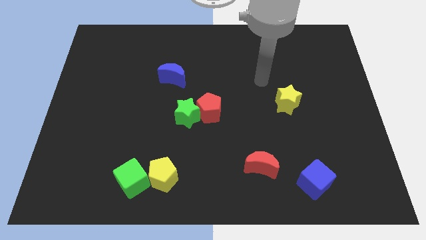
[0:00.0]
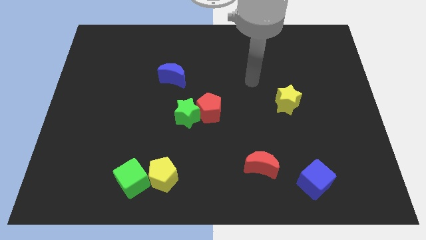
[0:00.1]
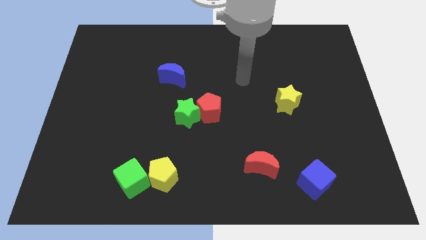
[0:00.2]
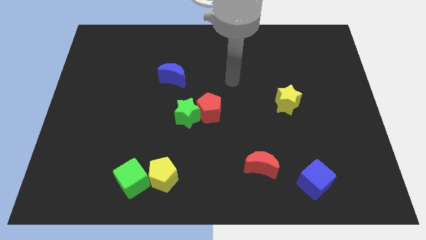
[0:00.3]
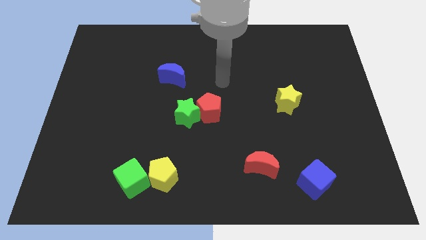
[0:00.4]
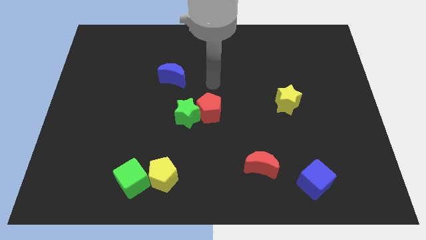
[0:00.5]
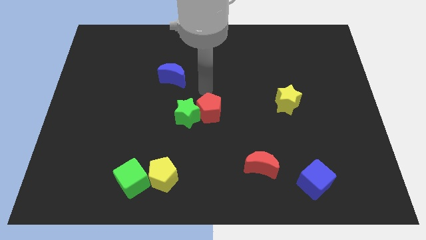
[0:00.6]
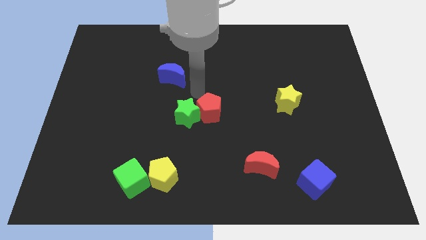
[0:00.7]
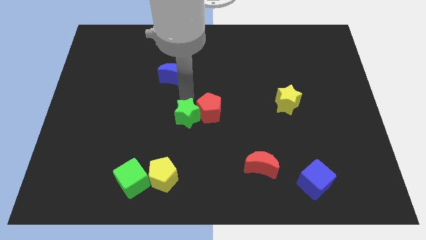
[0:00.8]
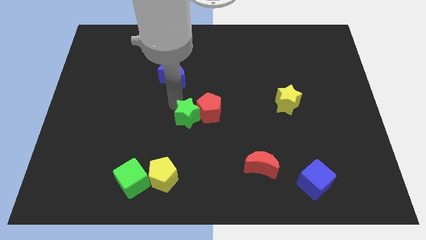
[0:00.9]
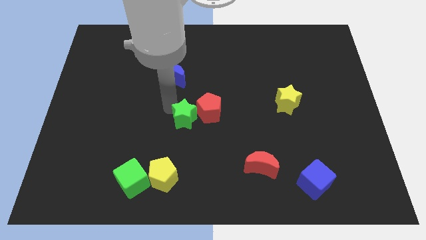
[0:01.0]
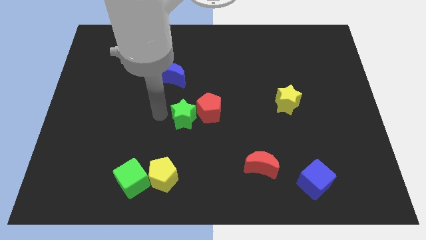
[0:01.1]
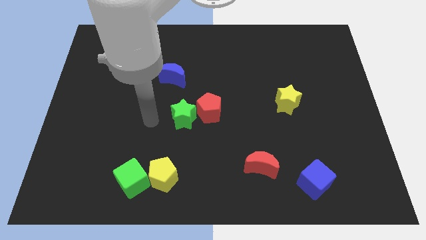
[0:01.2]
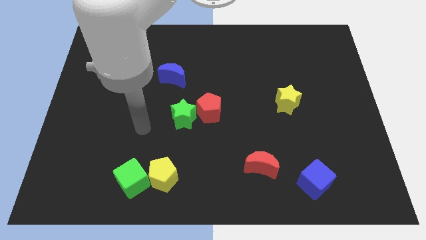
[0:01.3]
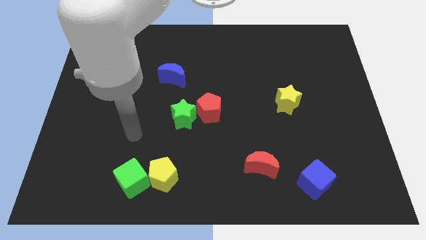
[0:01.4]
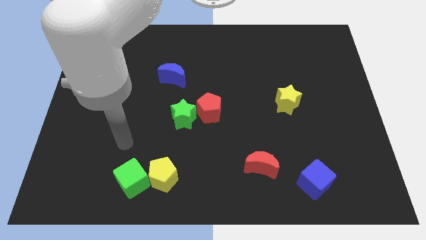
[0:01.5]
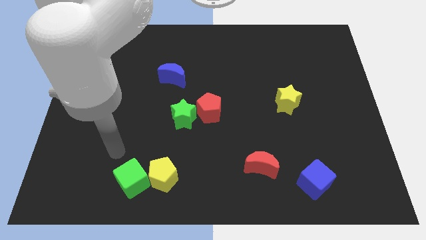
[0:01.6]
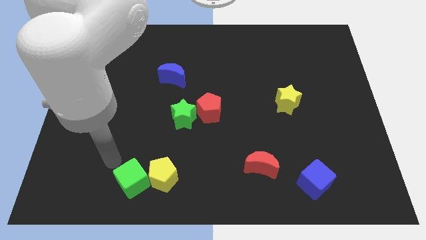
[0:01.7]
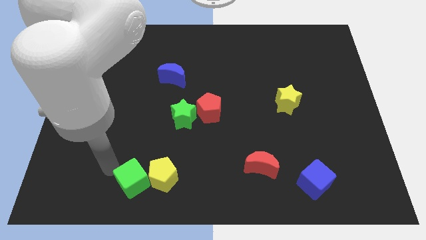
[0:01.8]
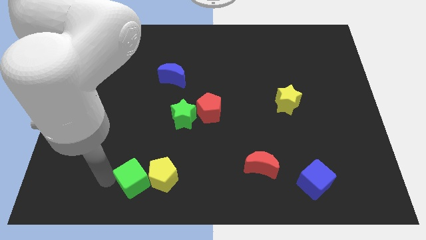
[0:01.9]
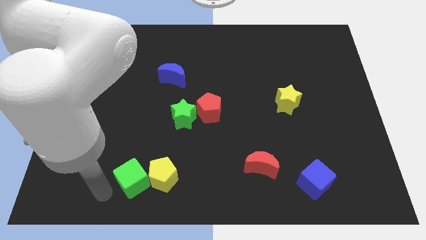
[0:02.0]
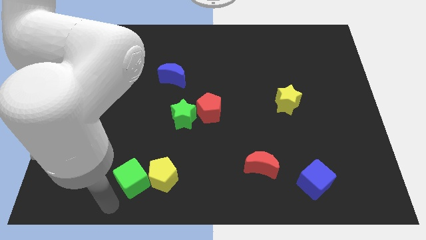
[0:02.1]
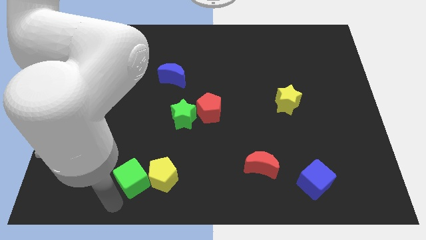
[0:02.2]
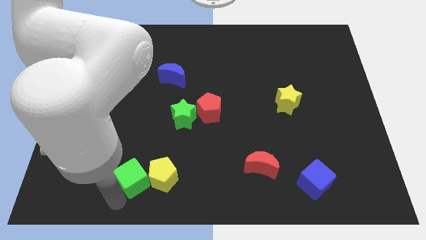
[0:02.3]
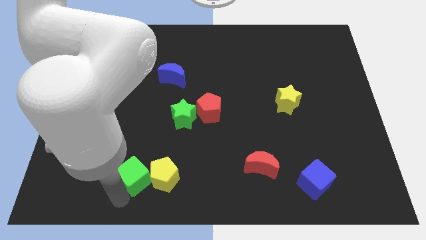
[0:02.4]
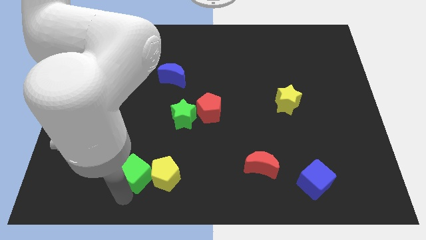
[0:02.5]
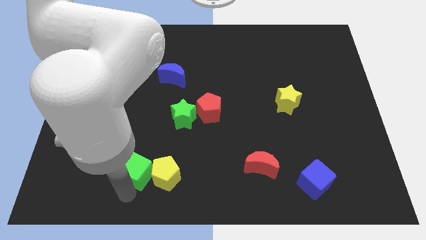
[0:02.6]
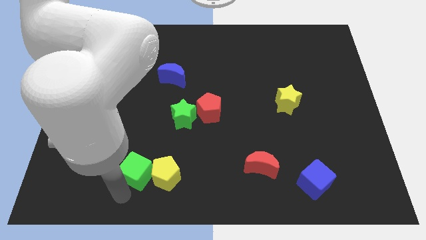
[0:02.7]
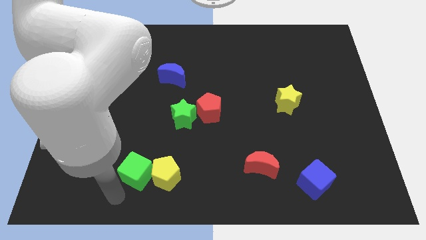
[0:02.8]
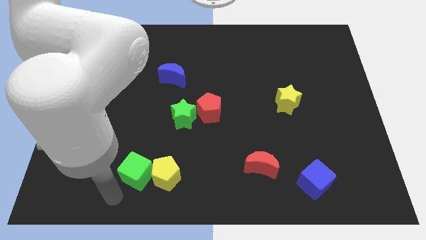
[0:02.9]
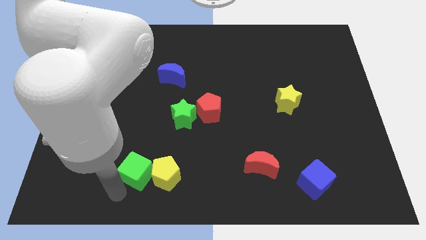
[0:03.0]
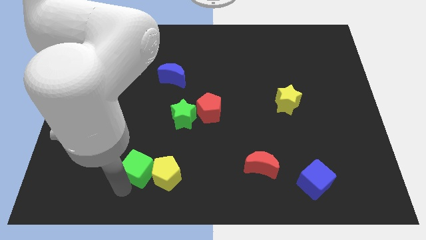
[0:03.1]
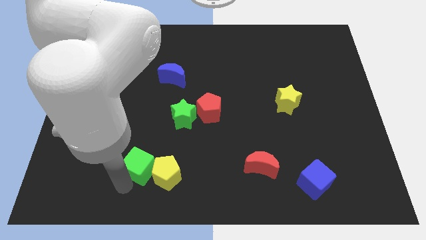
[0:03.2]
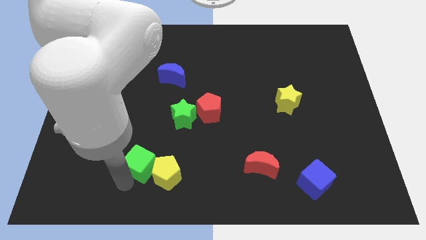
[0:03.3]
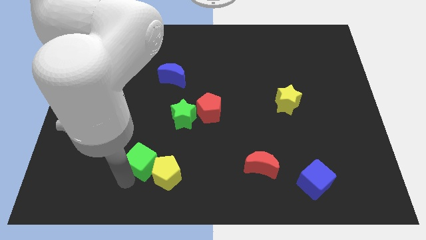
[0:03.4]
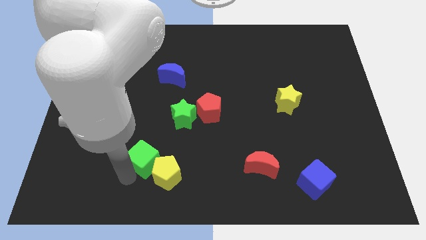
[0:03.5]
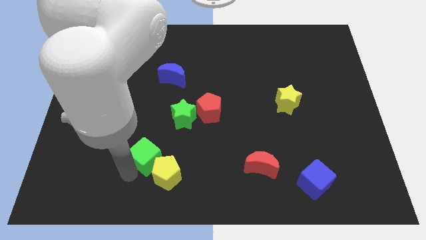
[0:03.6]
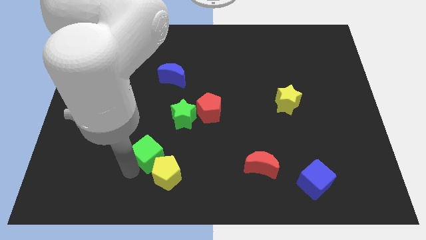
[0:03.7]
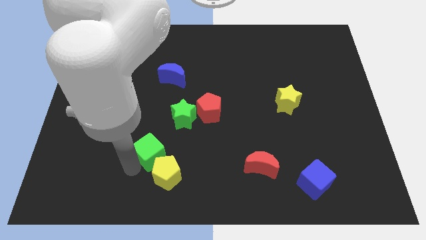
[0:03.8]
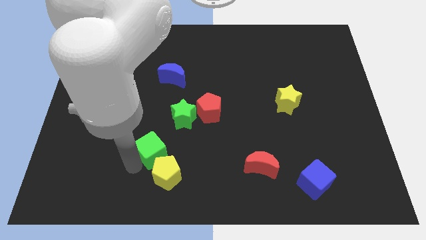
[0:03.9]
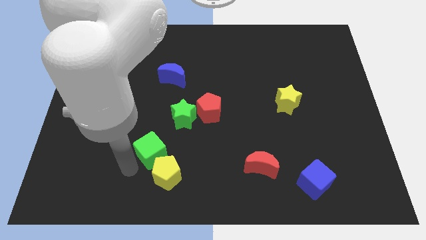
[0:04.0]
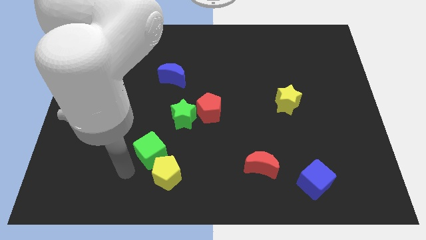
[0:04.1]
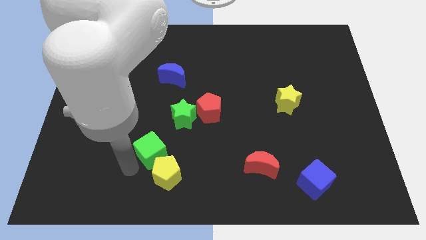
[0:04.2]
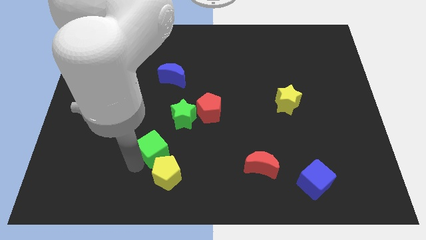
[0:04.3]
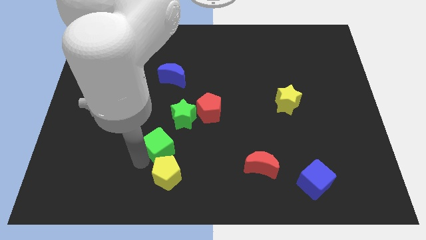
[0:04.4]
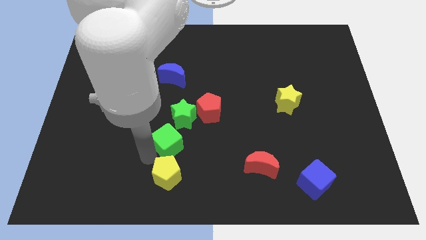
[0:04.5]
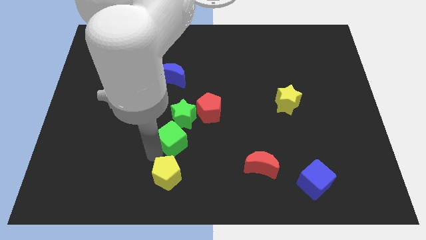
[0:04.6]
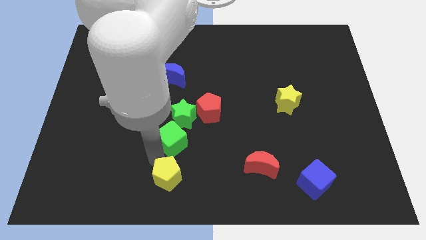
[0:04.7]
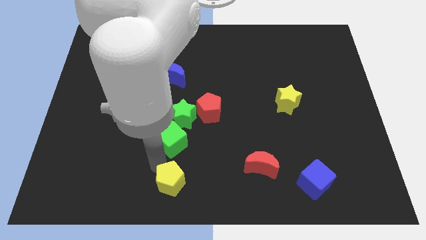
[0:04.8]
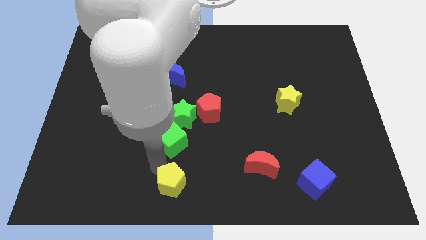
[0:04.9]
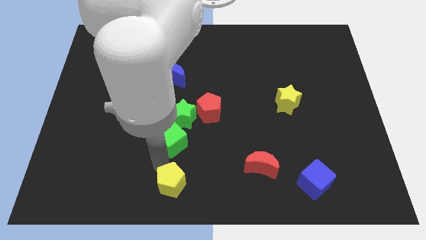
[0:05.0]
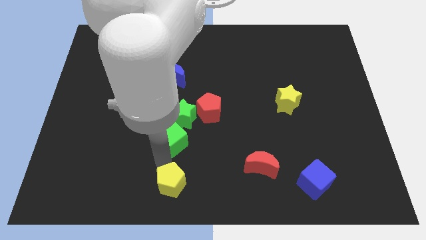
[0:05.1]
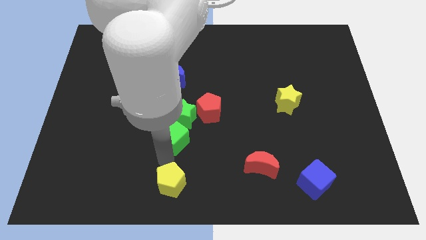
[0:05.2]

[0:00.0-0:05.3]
push the green cube next to the green star

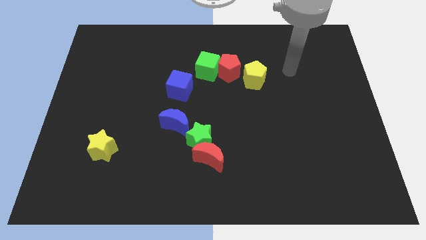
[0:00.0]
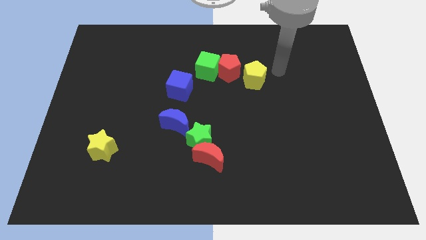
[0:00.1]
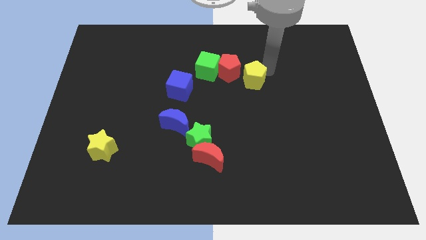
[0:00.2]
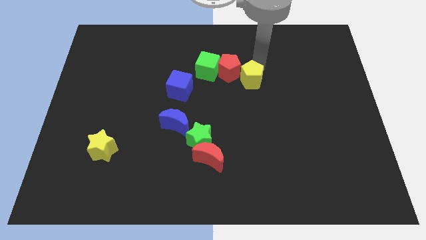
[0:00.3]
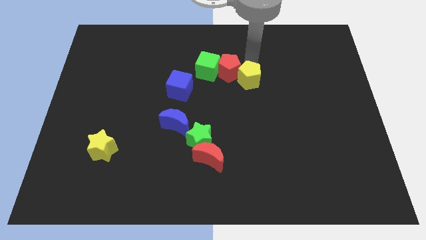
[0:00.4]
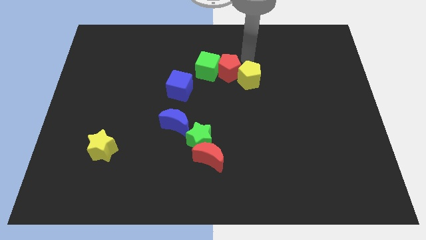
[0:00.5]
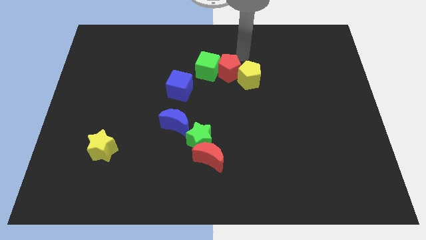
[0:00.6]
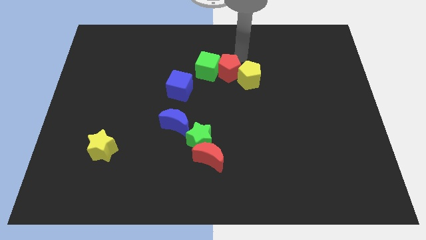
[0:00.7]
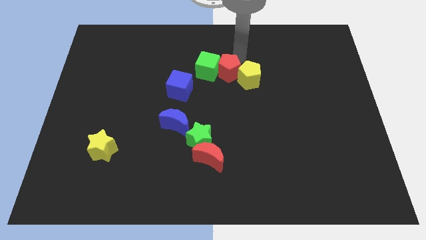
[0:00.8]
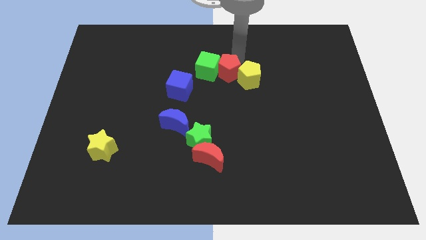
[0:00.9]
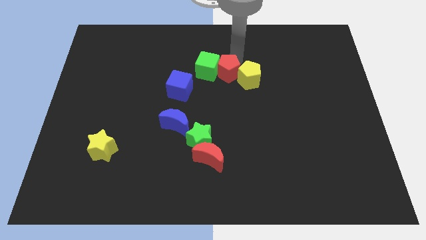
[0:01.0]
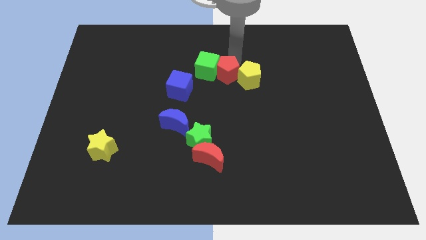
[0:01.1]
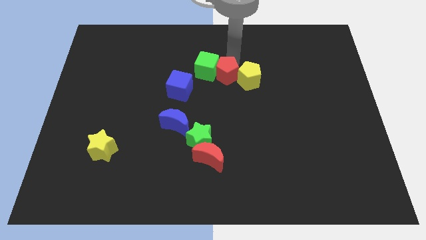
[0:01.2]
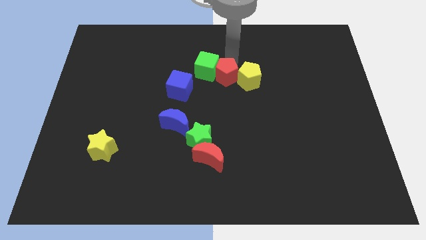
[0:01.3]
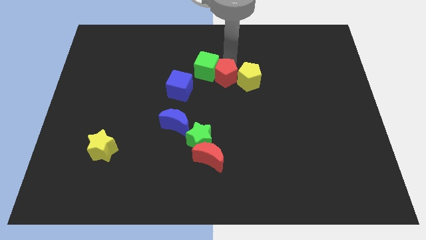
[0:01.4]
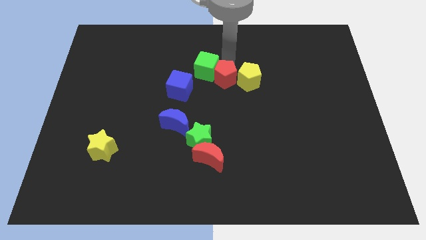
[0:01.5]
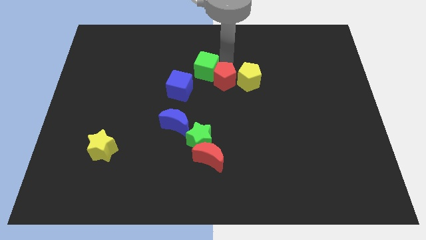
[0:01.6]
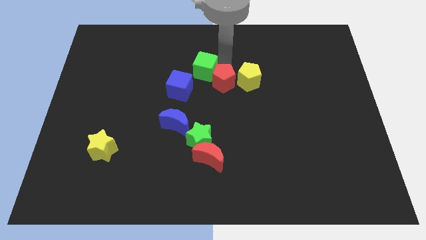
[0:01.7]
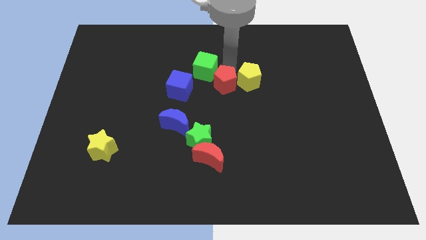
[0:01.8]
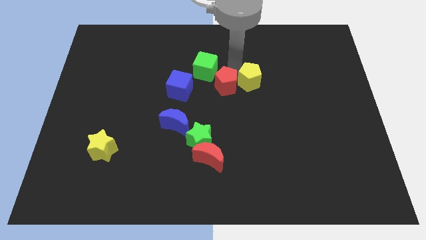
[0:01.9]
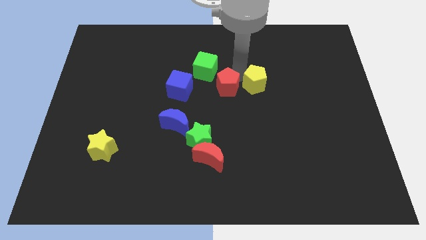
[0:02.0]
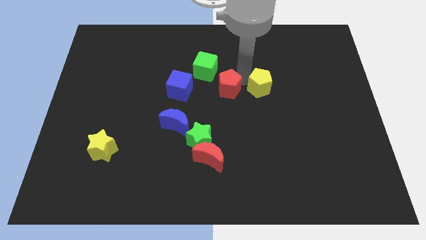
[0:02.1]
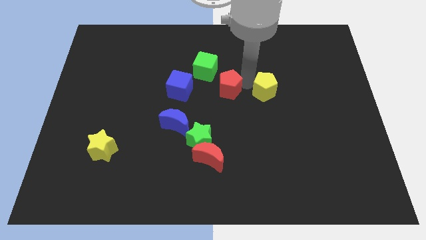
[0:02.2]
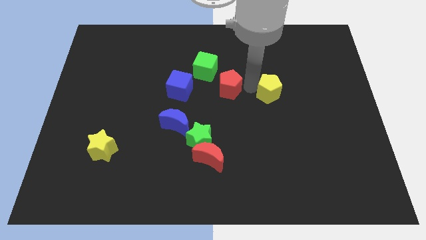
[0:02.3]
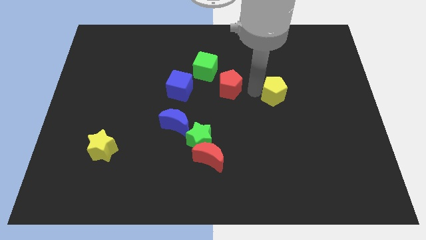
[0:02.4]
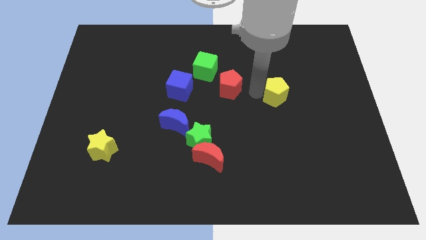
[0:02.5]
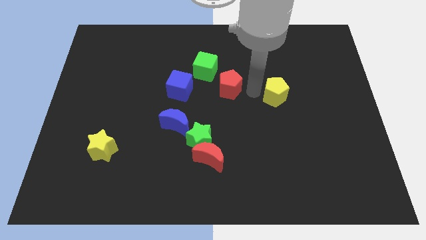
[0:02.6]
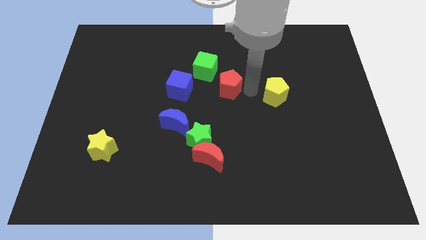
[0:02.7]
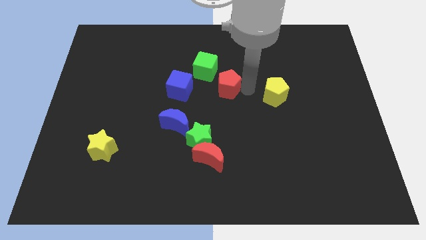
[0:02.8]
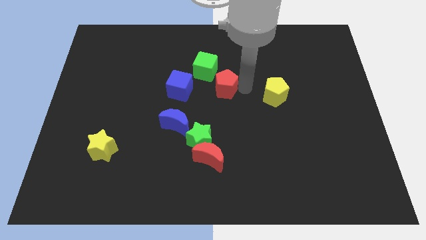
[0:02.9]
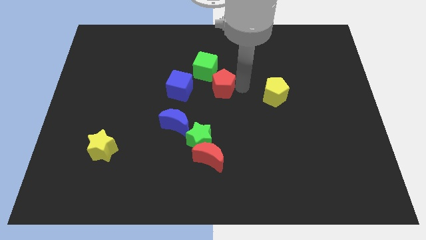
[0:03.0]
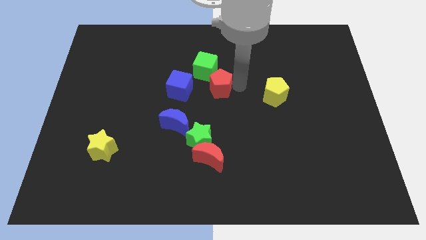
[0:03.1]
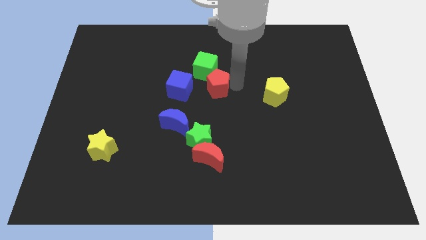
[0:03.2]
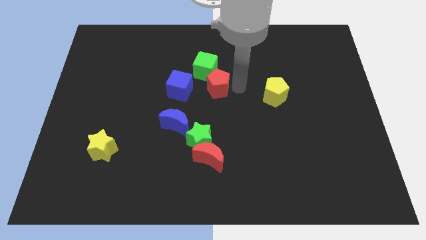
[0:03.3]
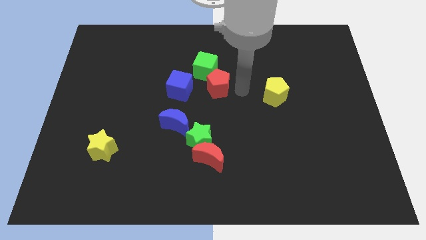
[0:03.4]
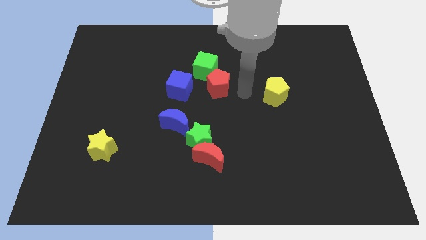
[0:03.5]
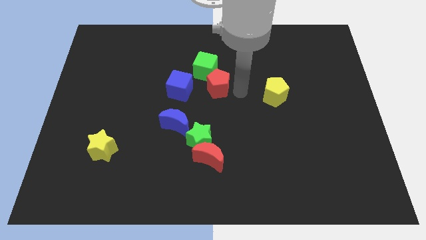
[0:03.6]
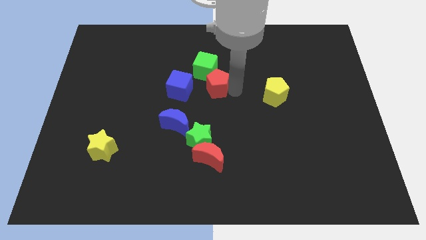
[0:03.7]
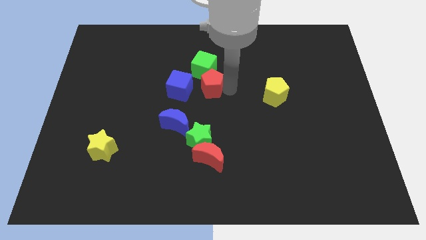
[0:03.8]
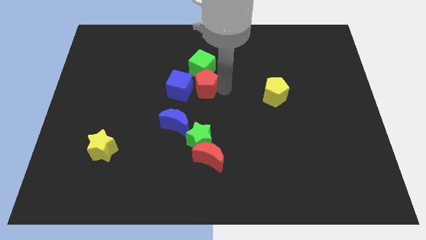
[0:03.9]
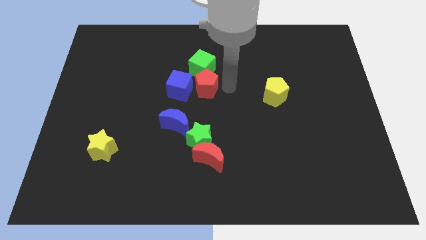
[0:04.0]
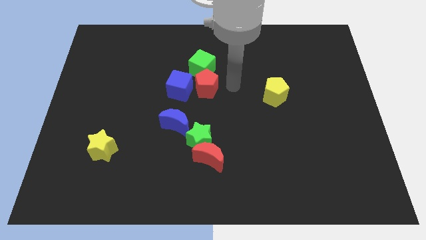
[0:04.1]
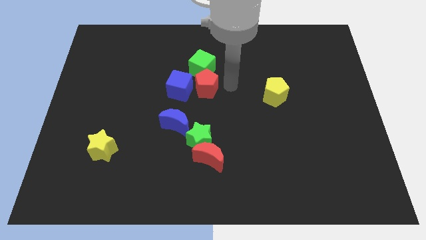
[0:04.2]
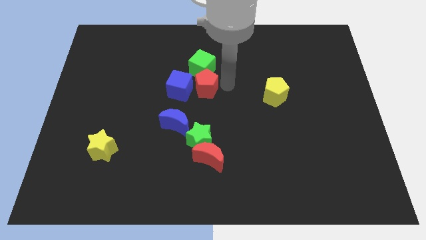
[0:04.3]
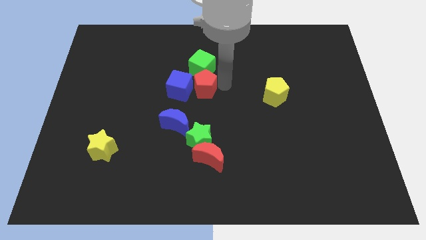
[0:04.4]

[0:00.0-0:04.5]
move the red pentagon next to the blue cube
